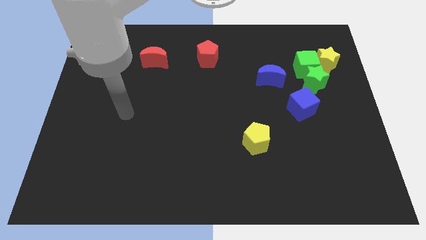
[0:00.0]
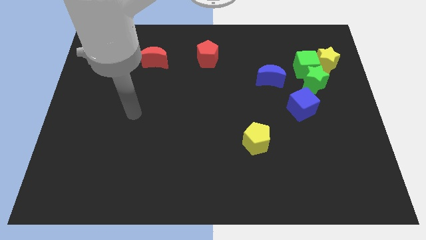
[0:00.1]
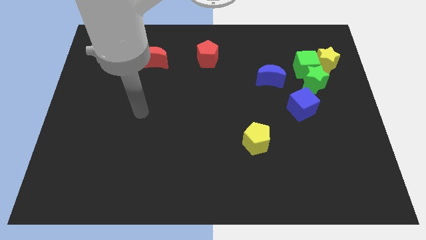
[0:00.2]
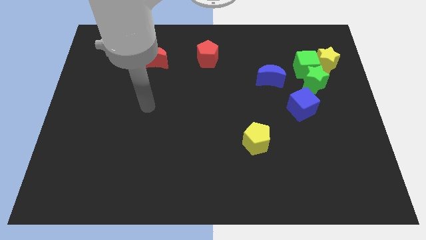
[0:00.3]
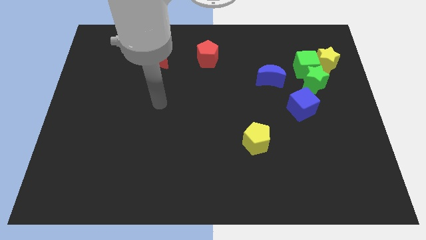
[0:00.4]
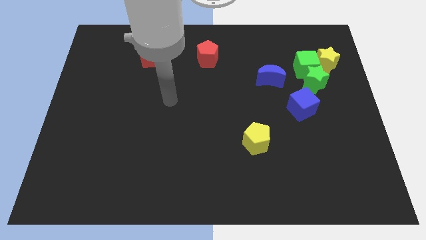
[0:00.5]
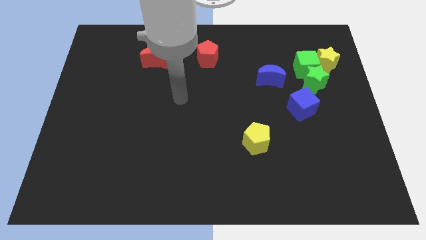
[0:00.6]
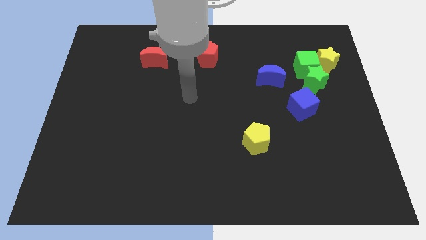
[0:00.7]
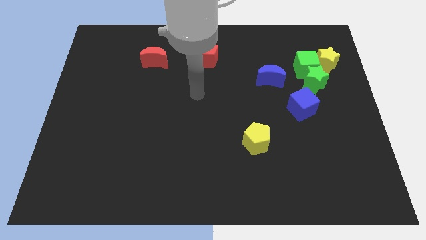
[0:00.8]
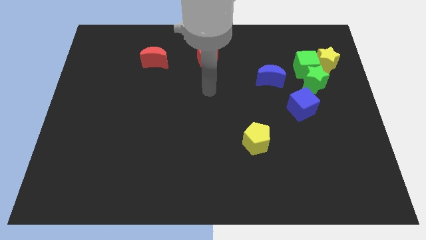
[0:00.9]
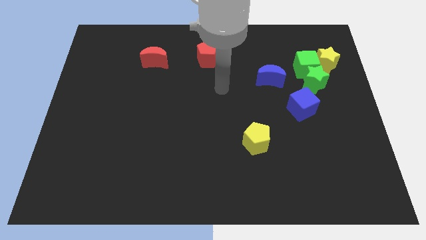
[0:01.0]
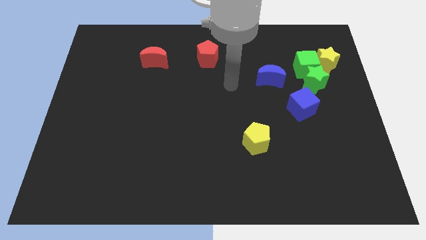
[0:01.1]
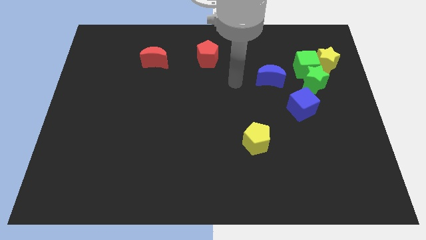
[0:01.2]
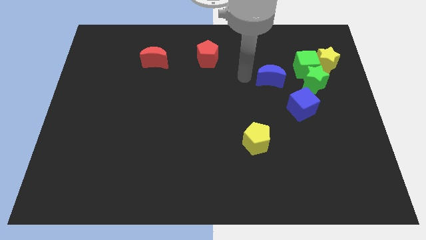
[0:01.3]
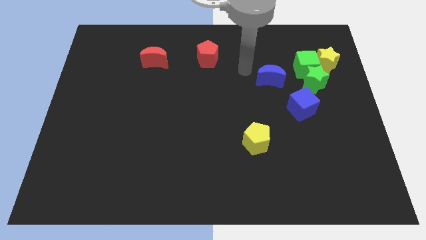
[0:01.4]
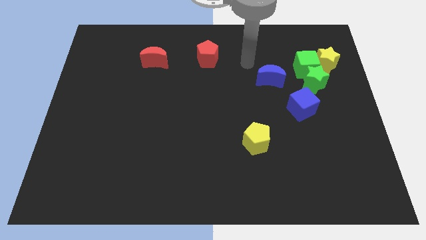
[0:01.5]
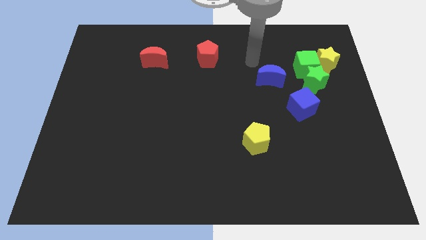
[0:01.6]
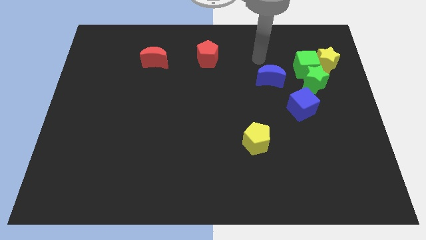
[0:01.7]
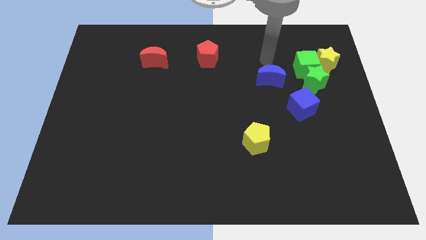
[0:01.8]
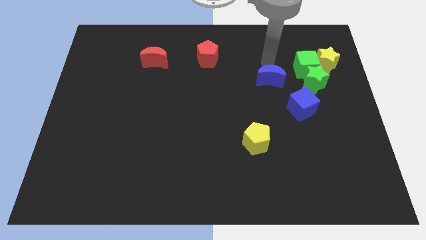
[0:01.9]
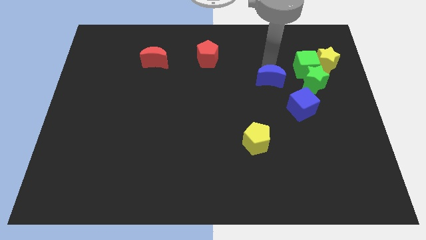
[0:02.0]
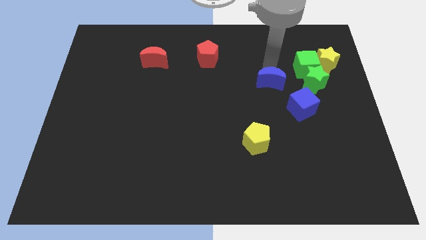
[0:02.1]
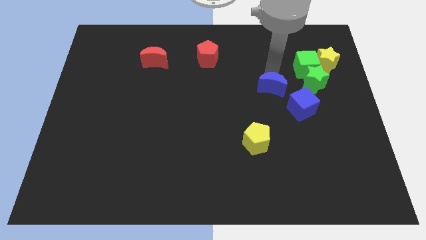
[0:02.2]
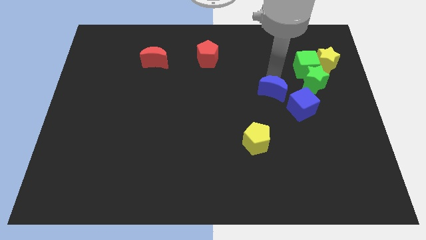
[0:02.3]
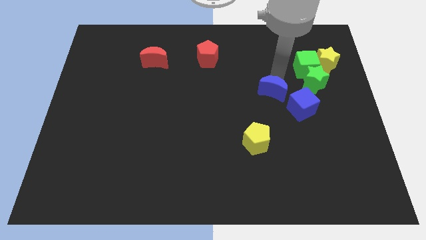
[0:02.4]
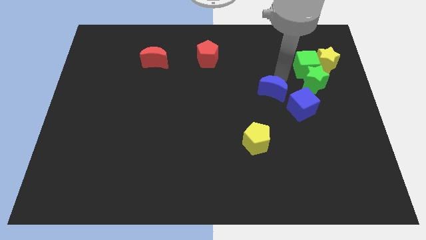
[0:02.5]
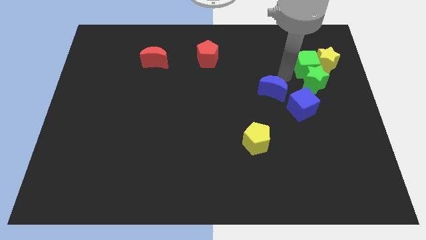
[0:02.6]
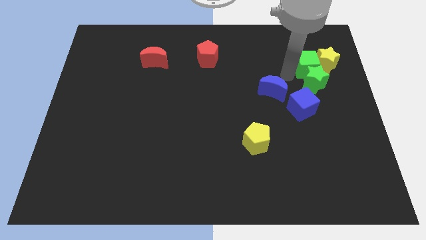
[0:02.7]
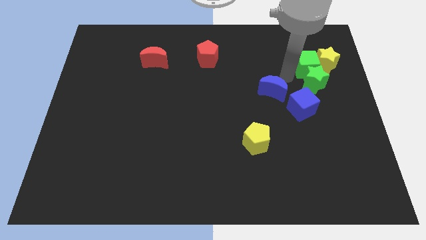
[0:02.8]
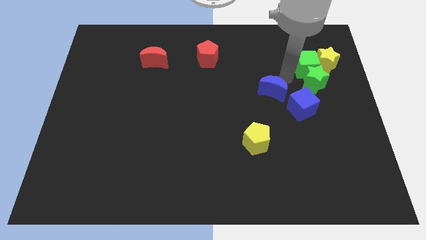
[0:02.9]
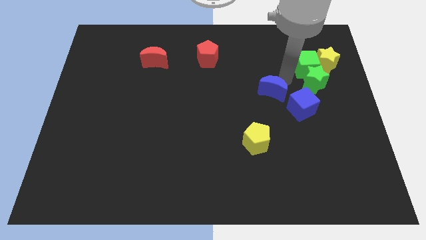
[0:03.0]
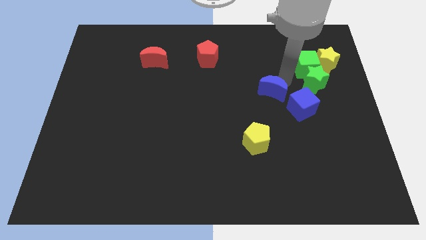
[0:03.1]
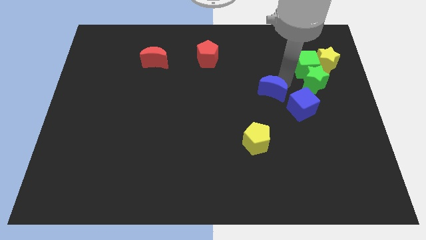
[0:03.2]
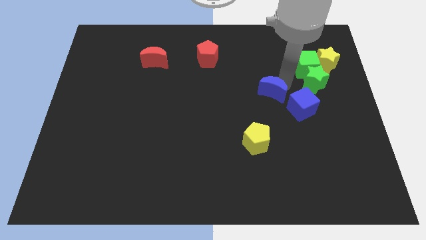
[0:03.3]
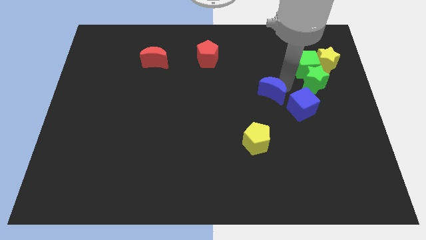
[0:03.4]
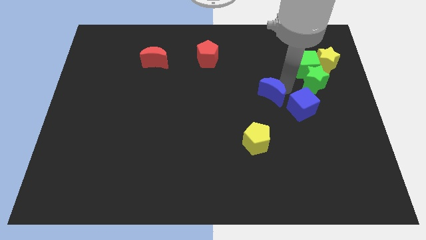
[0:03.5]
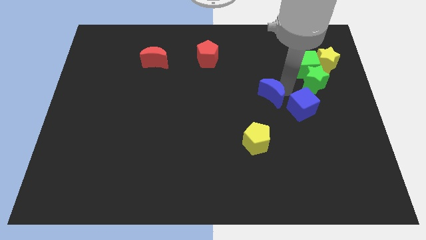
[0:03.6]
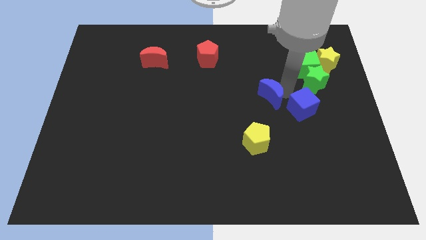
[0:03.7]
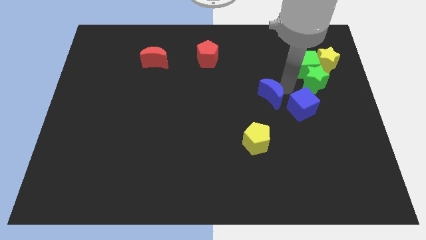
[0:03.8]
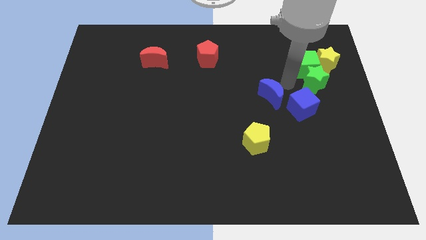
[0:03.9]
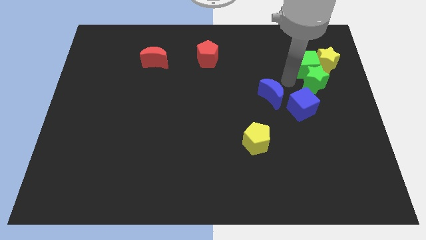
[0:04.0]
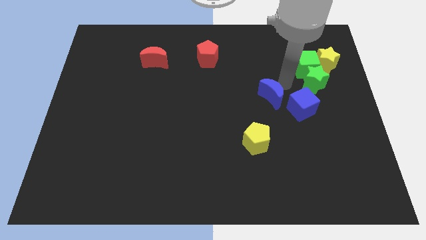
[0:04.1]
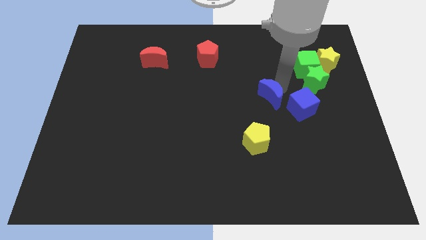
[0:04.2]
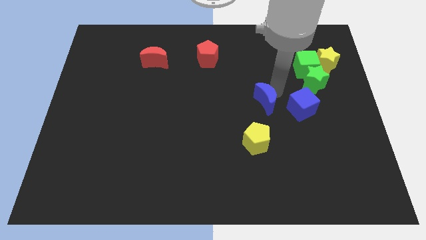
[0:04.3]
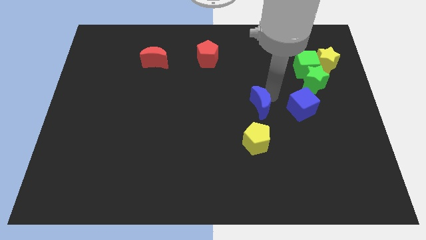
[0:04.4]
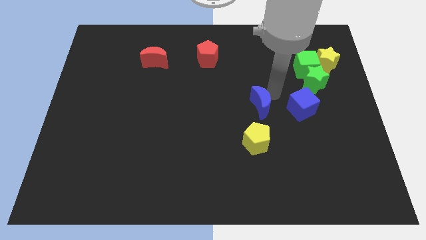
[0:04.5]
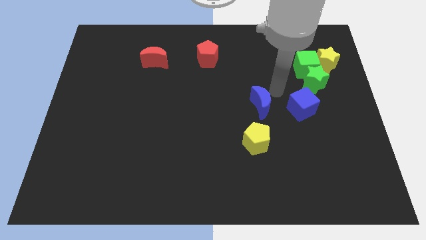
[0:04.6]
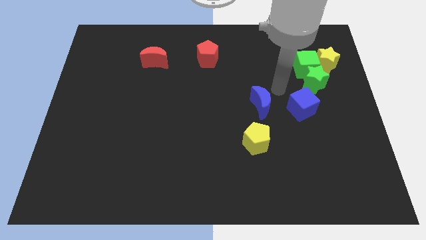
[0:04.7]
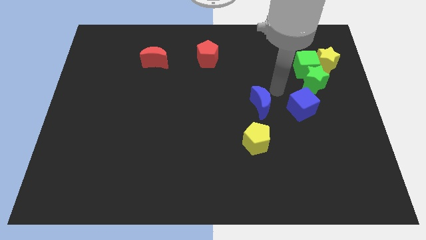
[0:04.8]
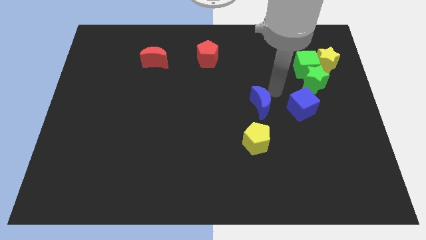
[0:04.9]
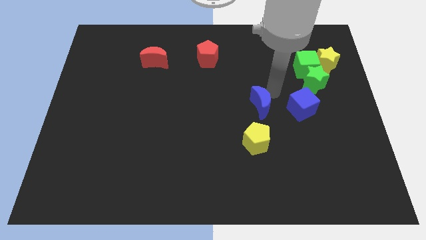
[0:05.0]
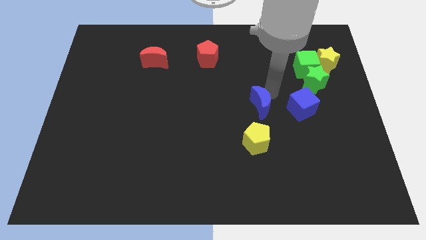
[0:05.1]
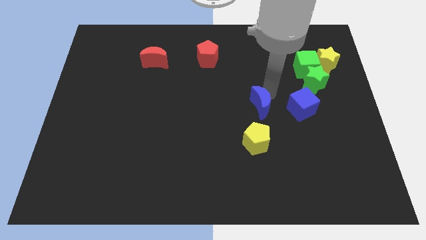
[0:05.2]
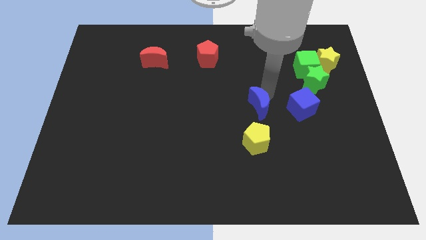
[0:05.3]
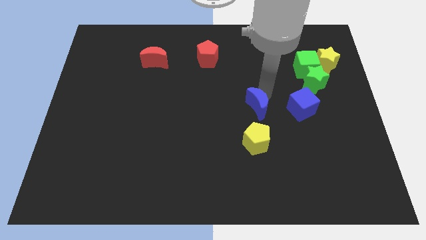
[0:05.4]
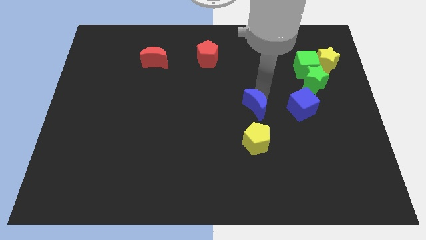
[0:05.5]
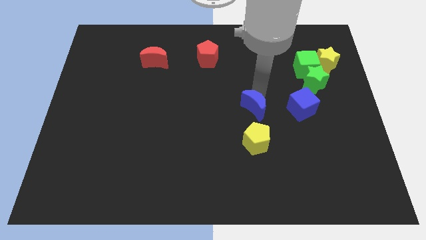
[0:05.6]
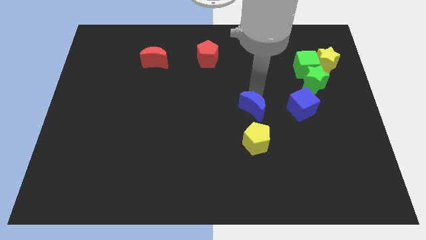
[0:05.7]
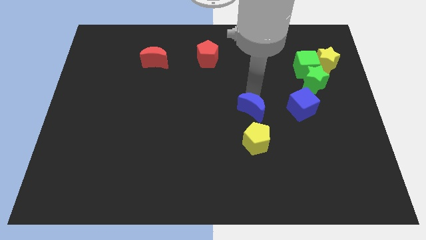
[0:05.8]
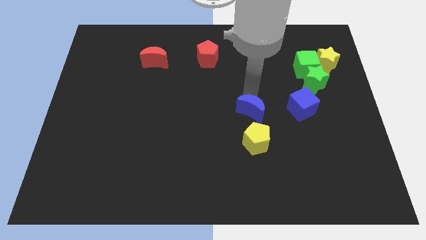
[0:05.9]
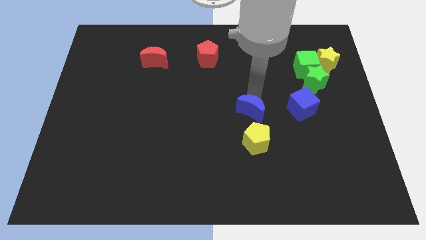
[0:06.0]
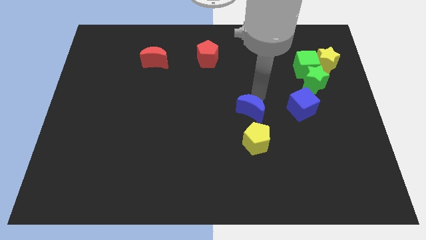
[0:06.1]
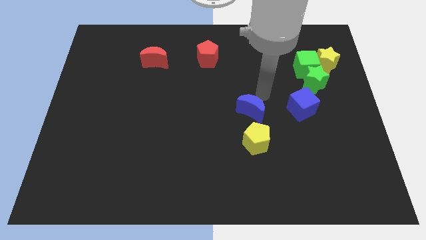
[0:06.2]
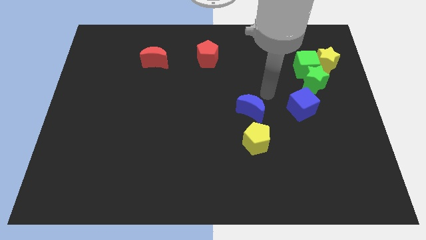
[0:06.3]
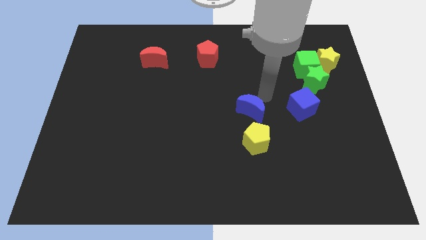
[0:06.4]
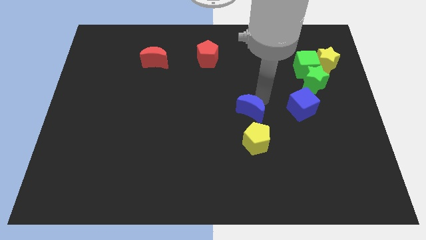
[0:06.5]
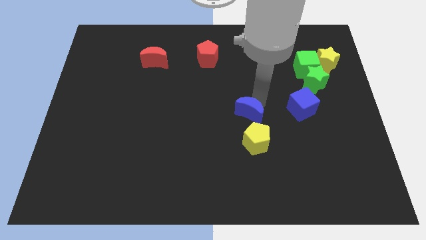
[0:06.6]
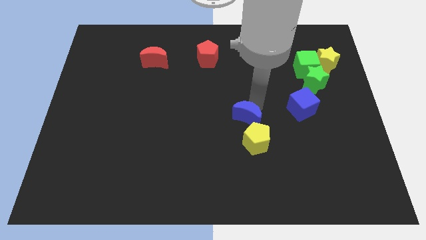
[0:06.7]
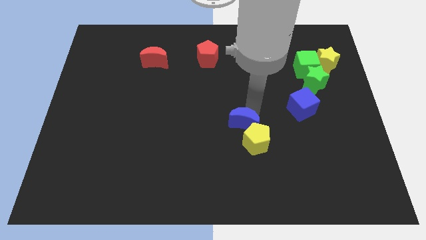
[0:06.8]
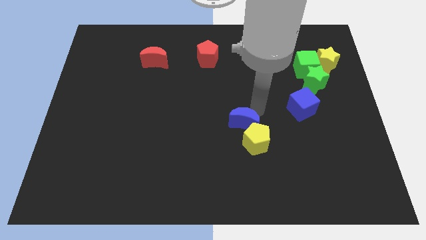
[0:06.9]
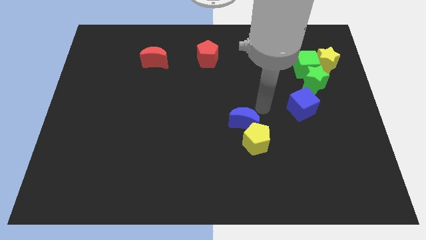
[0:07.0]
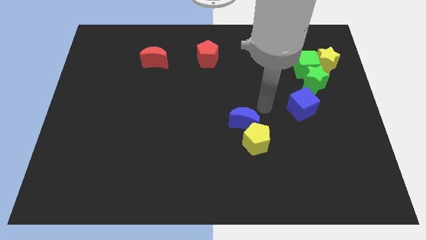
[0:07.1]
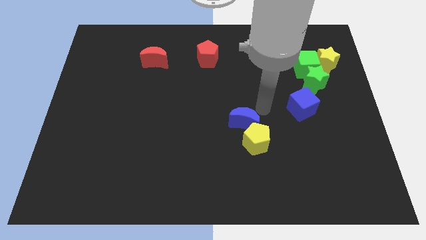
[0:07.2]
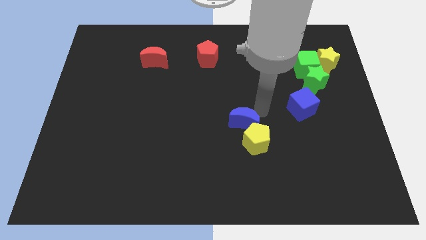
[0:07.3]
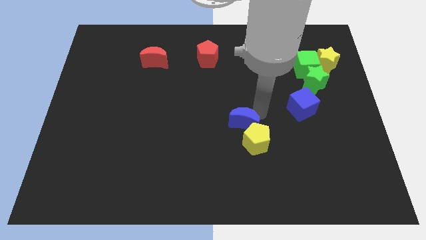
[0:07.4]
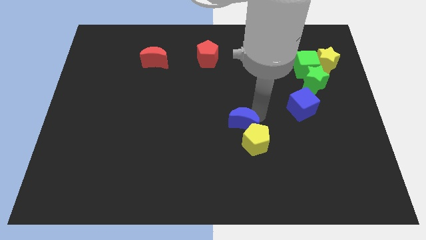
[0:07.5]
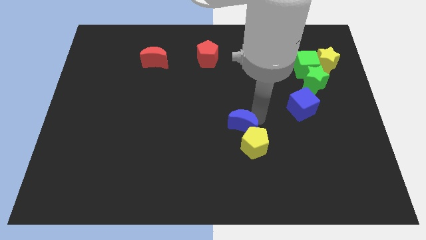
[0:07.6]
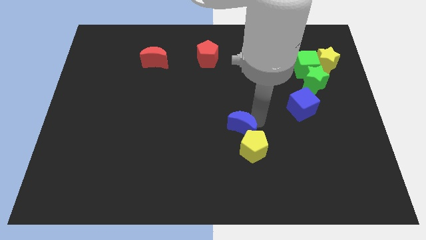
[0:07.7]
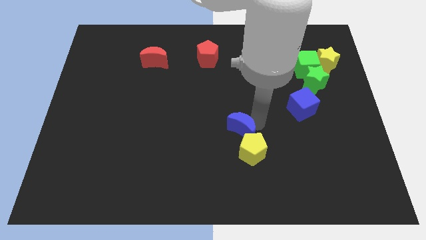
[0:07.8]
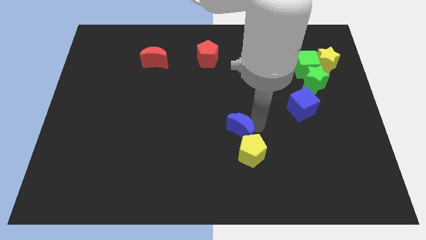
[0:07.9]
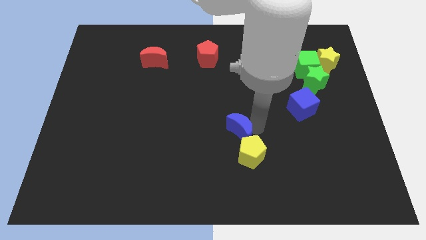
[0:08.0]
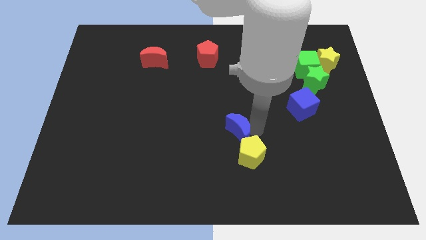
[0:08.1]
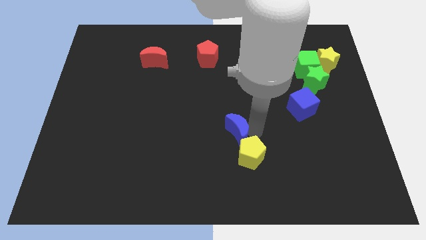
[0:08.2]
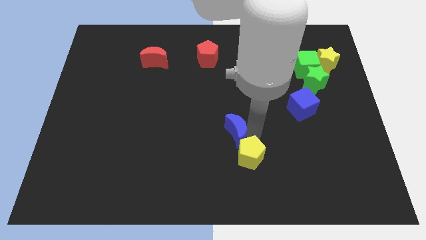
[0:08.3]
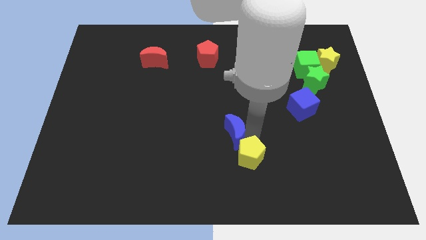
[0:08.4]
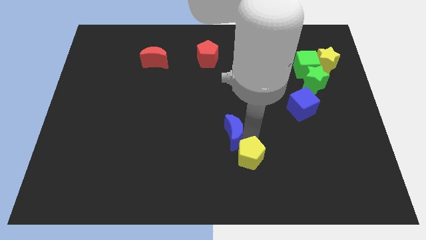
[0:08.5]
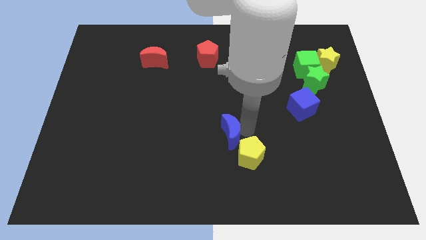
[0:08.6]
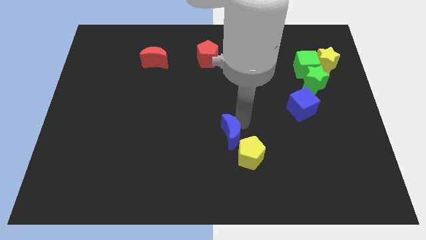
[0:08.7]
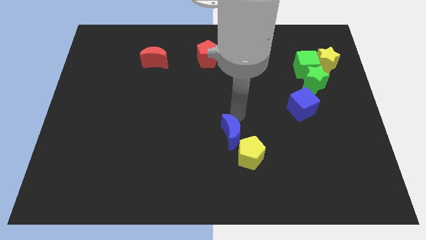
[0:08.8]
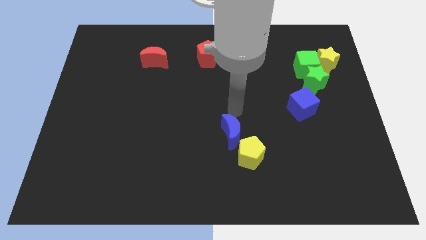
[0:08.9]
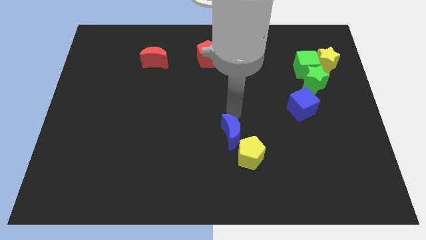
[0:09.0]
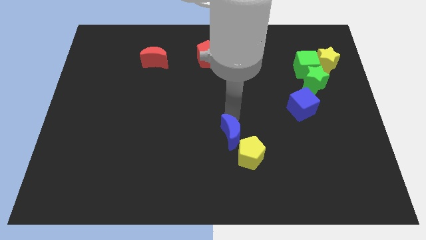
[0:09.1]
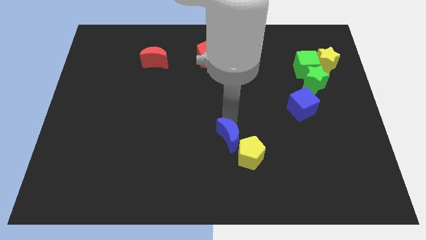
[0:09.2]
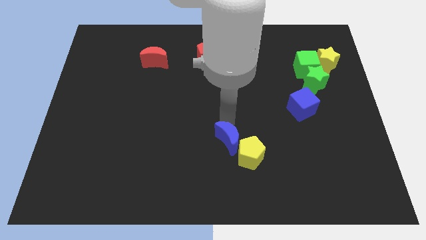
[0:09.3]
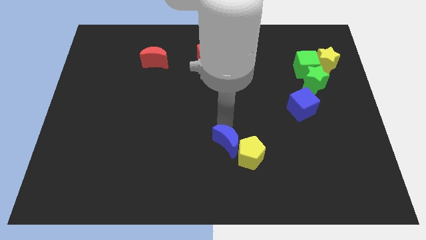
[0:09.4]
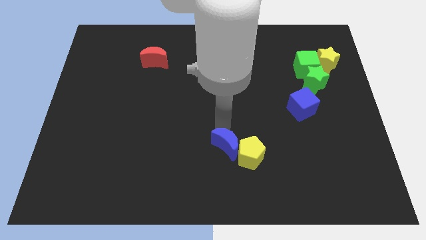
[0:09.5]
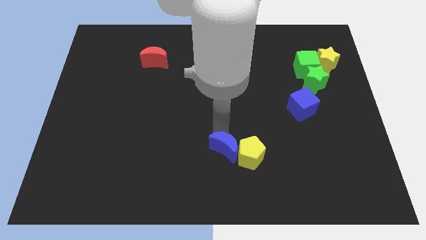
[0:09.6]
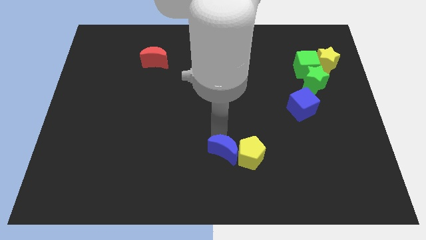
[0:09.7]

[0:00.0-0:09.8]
slide the blue moon to the bottom left side of the yellow pentagon
